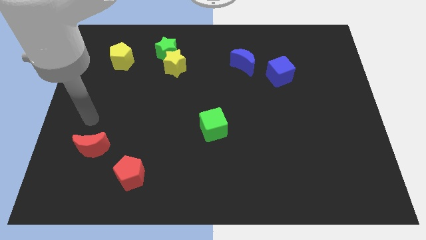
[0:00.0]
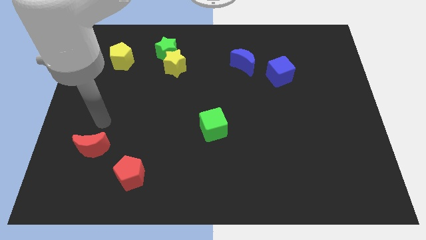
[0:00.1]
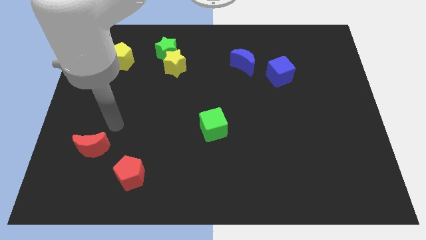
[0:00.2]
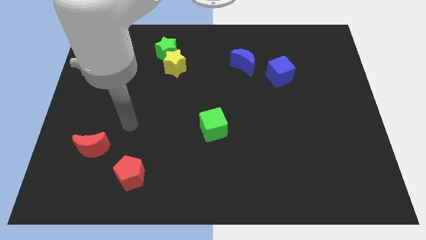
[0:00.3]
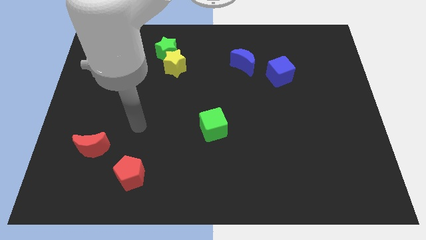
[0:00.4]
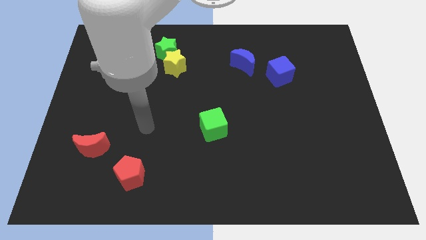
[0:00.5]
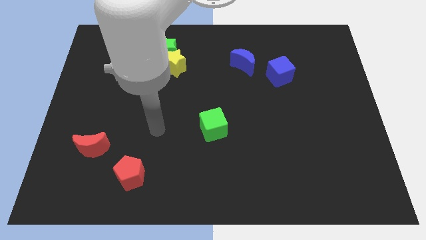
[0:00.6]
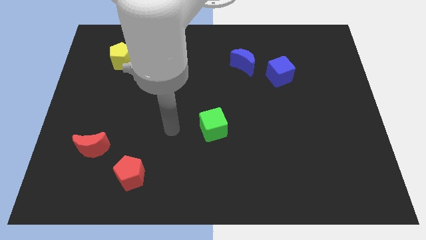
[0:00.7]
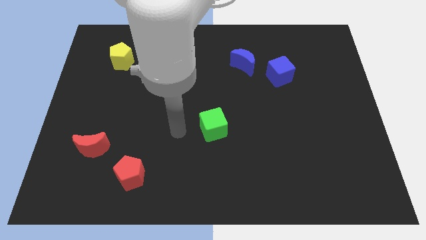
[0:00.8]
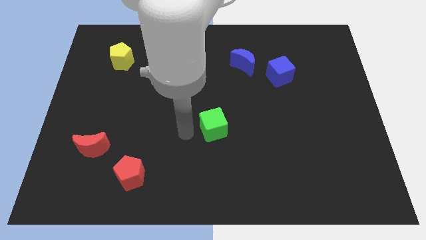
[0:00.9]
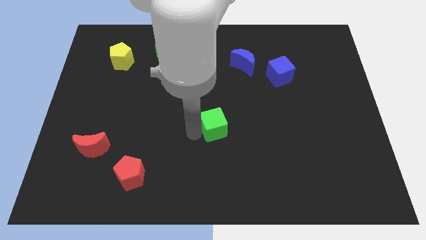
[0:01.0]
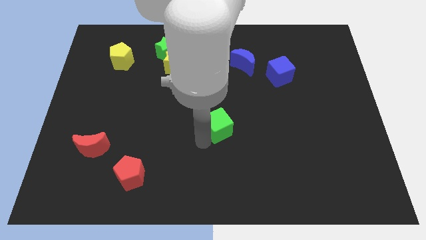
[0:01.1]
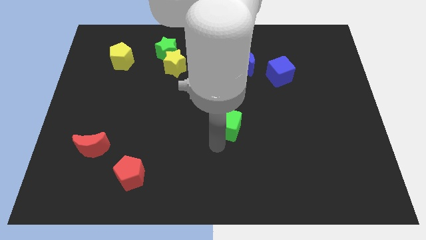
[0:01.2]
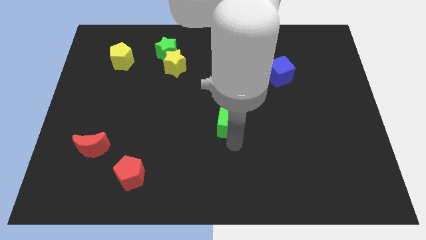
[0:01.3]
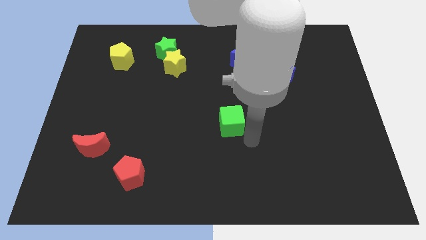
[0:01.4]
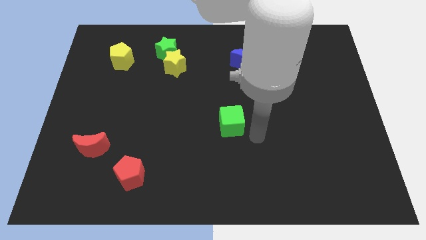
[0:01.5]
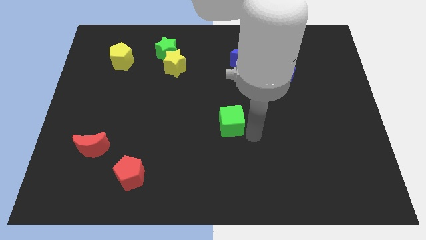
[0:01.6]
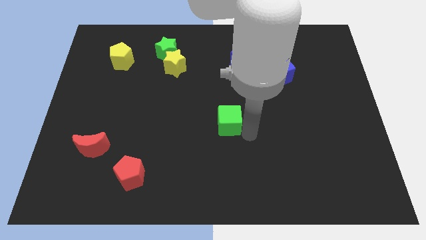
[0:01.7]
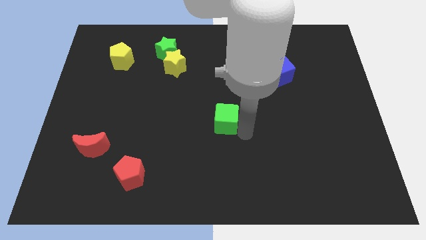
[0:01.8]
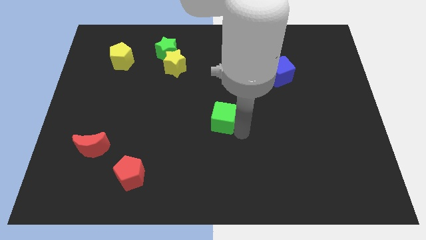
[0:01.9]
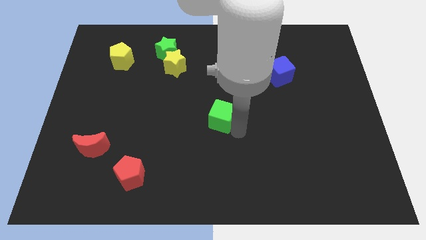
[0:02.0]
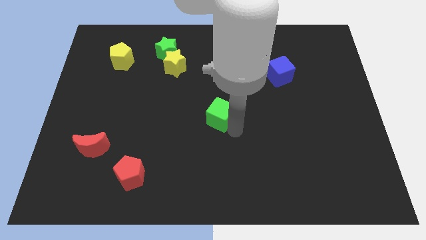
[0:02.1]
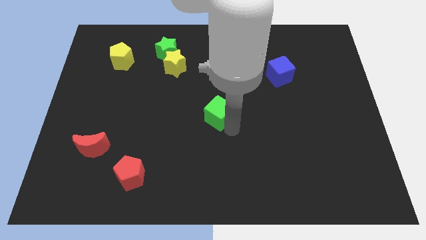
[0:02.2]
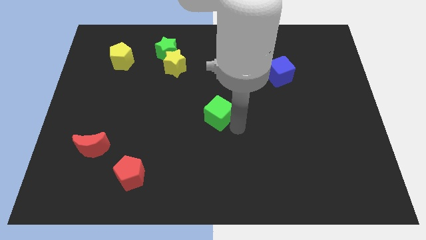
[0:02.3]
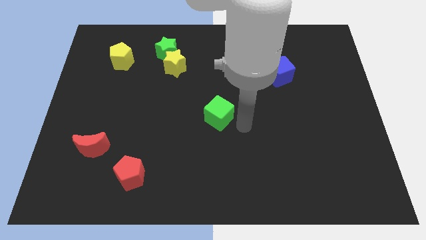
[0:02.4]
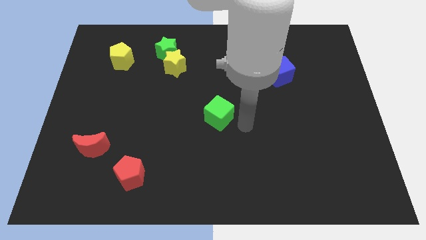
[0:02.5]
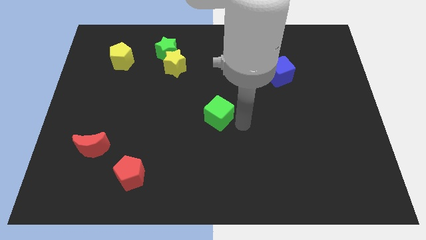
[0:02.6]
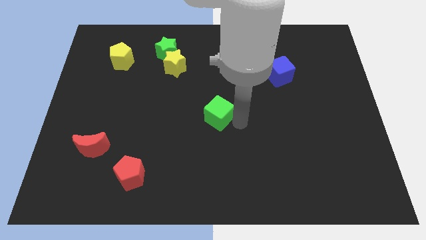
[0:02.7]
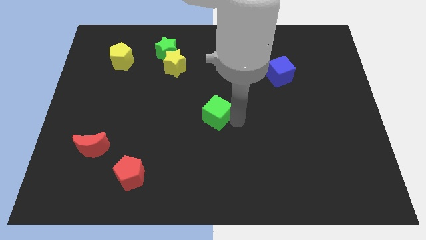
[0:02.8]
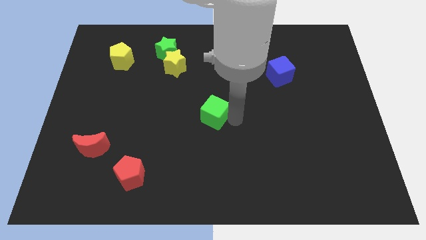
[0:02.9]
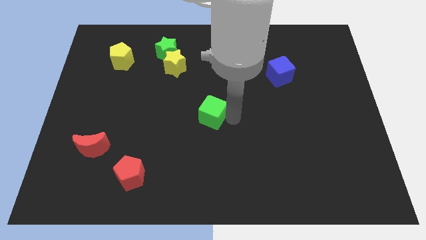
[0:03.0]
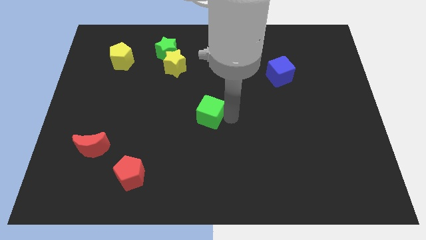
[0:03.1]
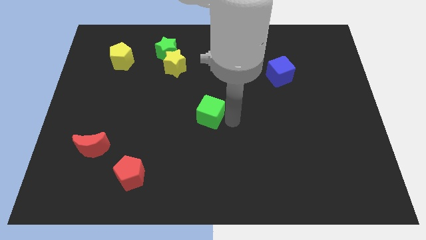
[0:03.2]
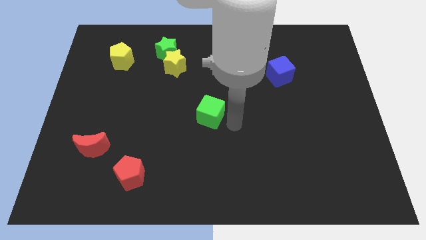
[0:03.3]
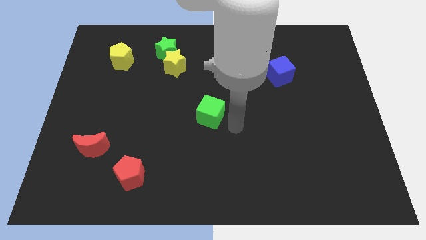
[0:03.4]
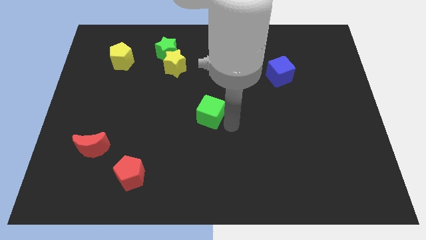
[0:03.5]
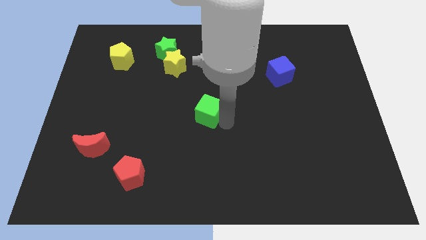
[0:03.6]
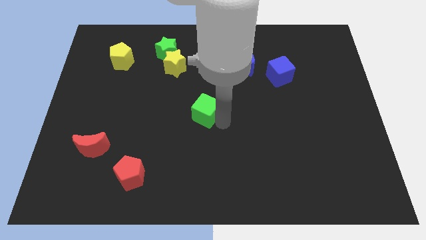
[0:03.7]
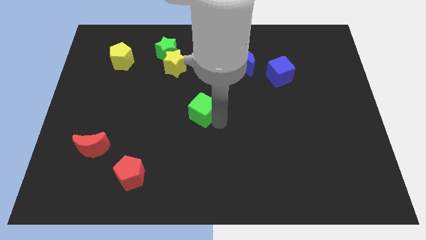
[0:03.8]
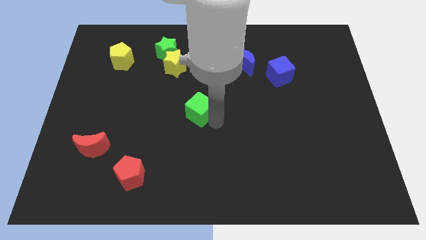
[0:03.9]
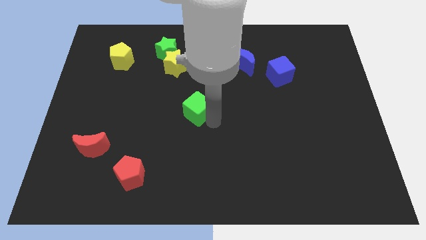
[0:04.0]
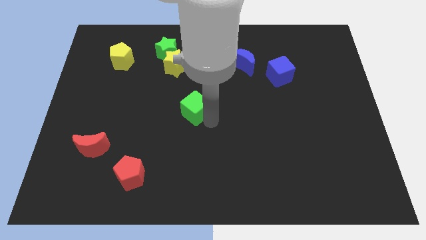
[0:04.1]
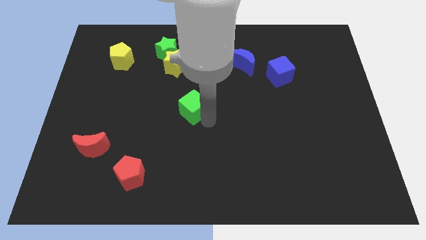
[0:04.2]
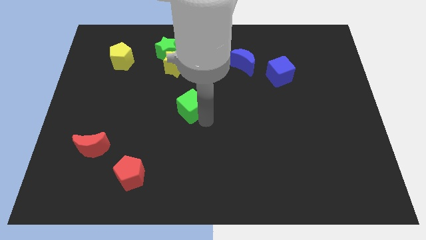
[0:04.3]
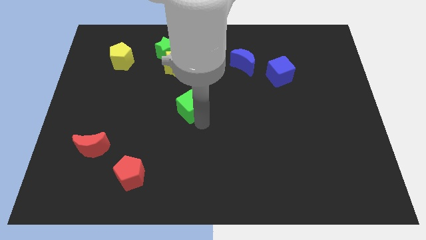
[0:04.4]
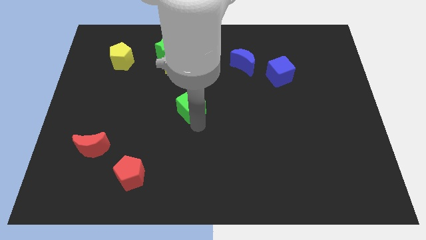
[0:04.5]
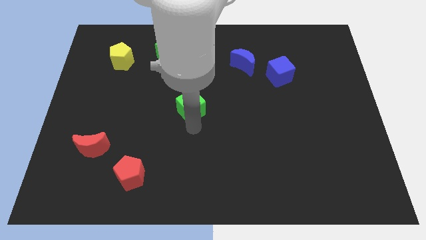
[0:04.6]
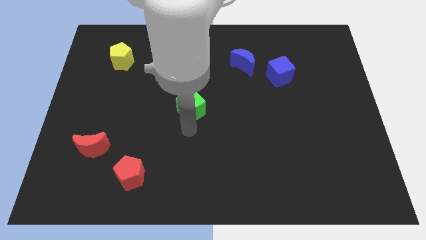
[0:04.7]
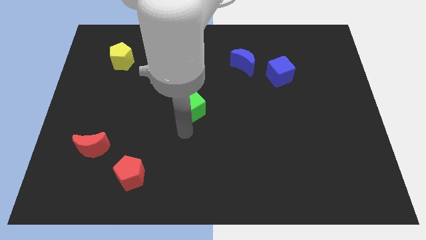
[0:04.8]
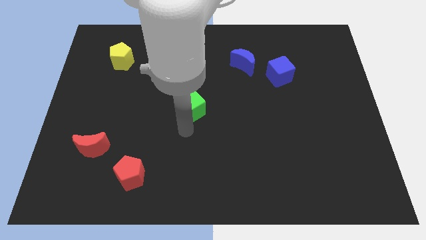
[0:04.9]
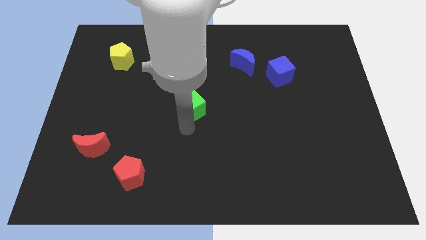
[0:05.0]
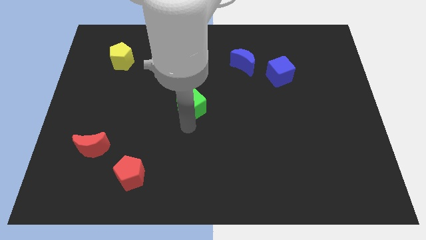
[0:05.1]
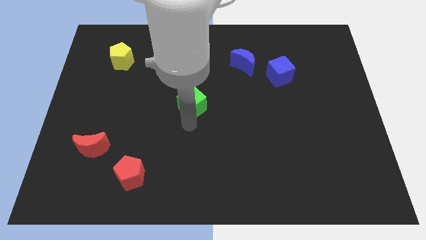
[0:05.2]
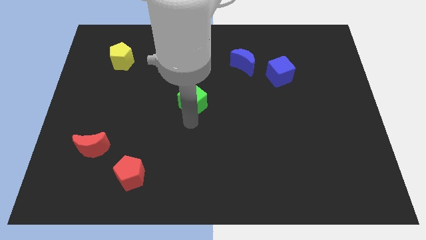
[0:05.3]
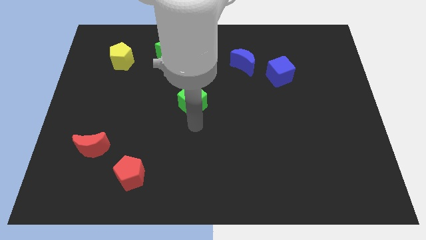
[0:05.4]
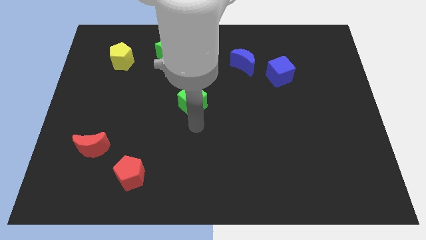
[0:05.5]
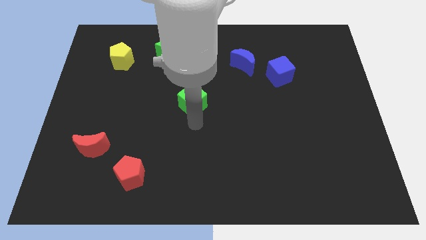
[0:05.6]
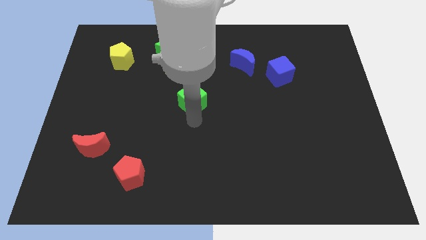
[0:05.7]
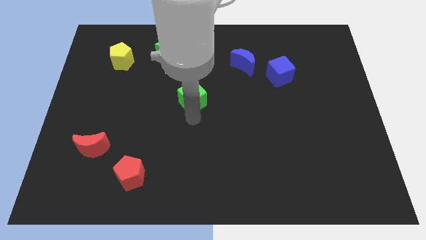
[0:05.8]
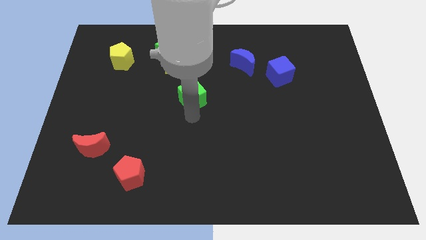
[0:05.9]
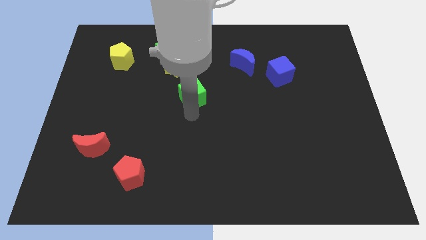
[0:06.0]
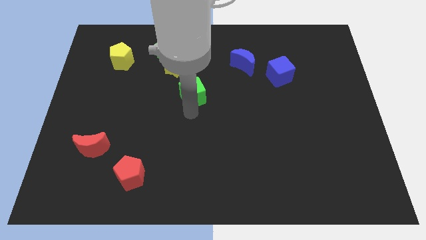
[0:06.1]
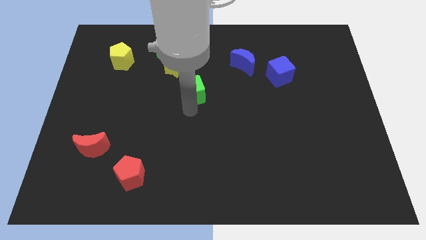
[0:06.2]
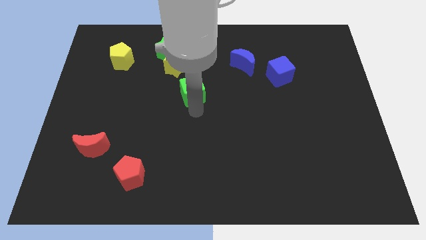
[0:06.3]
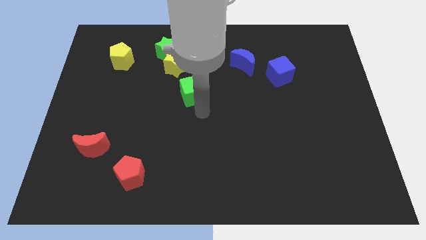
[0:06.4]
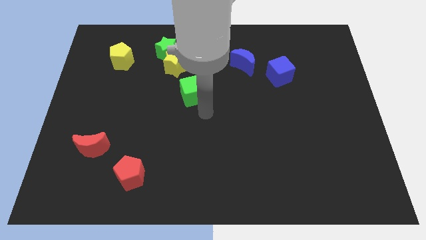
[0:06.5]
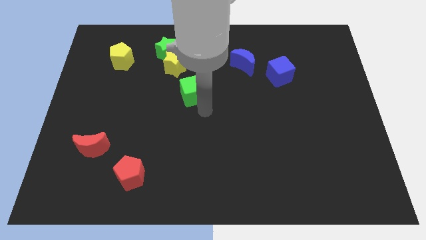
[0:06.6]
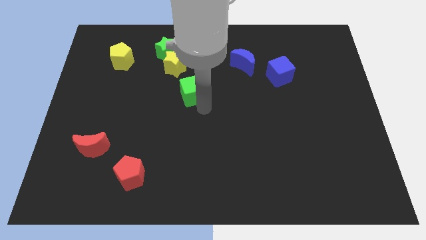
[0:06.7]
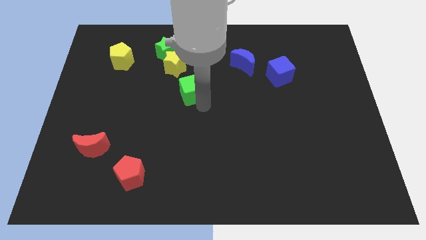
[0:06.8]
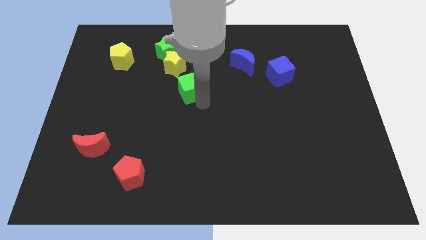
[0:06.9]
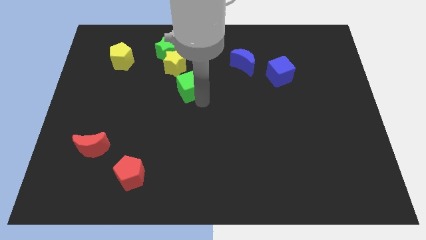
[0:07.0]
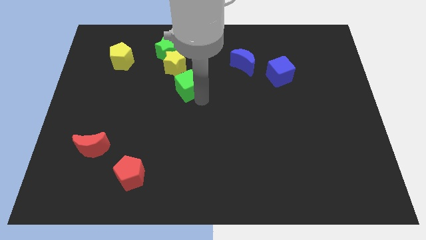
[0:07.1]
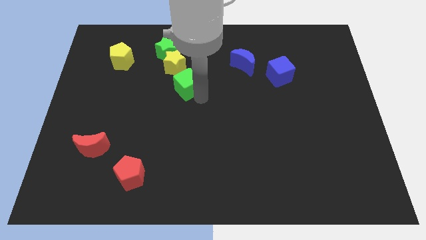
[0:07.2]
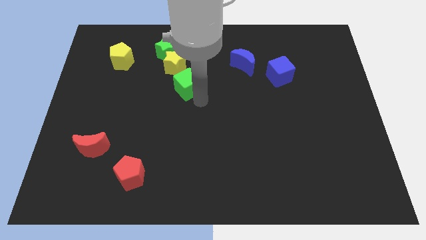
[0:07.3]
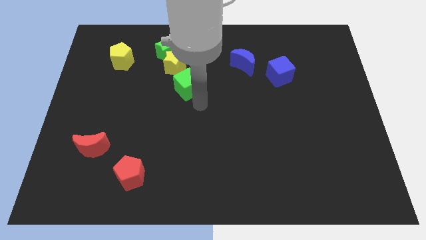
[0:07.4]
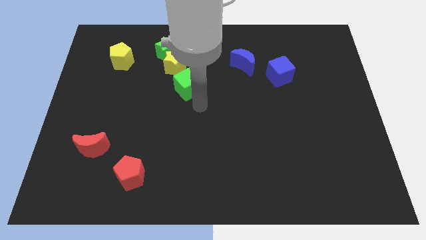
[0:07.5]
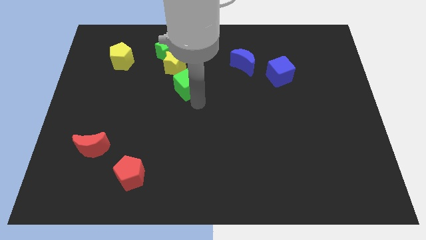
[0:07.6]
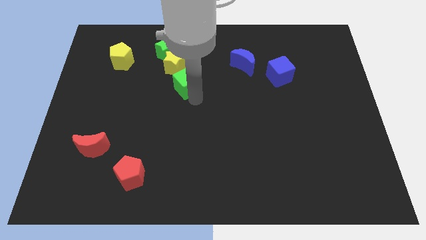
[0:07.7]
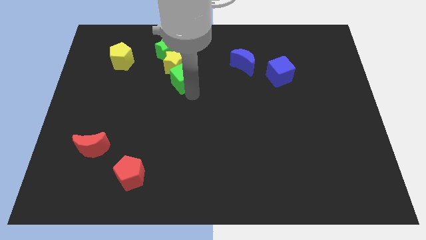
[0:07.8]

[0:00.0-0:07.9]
move the green cube to the yellow star
